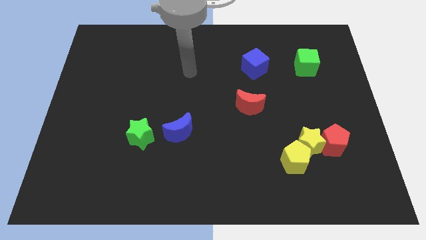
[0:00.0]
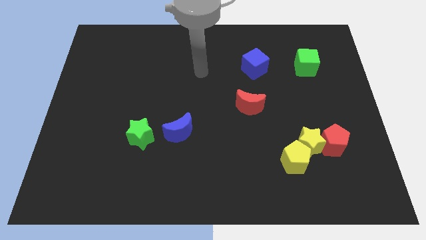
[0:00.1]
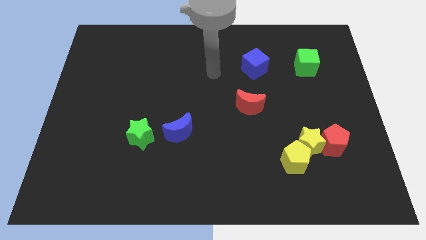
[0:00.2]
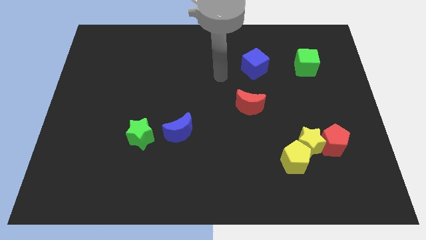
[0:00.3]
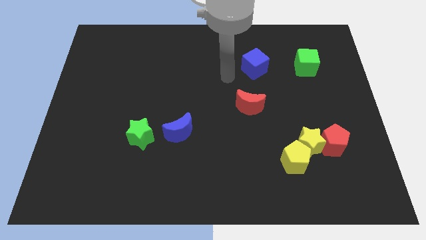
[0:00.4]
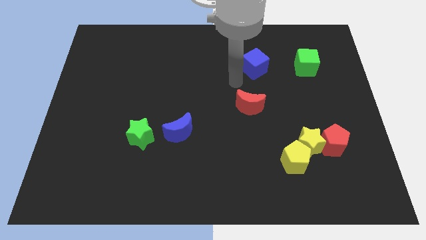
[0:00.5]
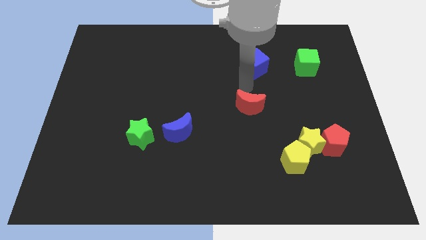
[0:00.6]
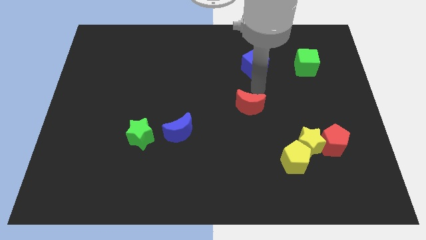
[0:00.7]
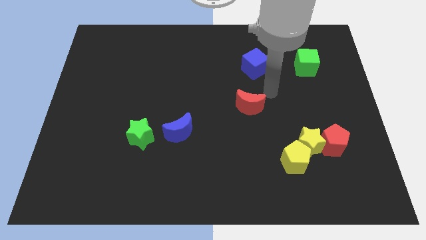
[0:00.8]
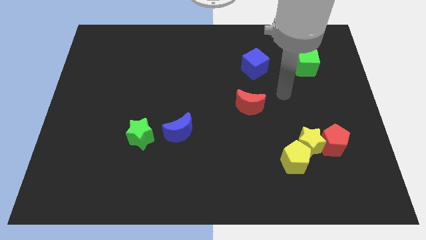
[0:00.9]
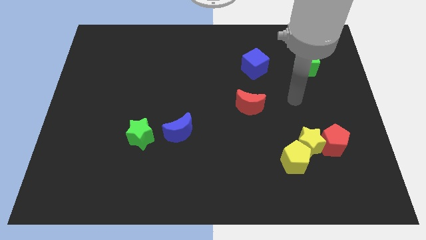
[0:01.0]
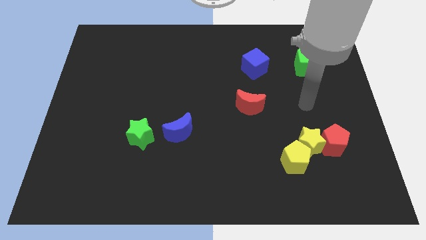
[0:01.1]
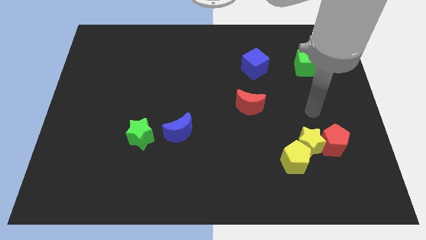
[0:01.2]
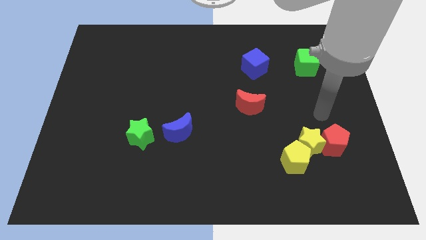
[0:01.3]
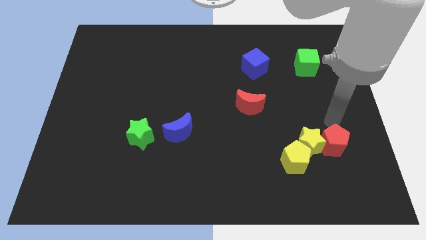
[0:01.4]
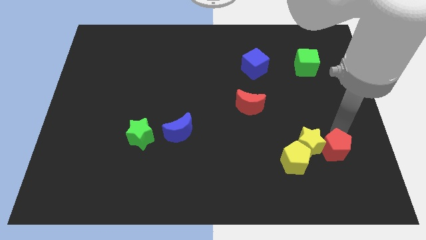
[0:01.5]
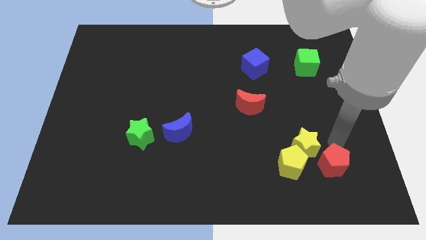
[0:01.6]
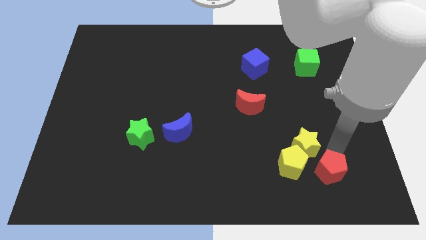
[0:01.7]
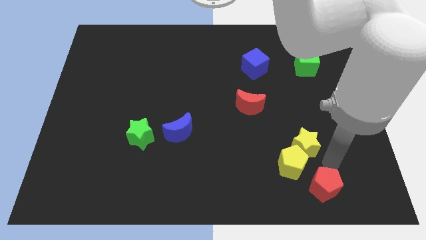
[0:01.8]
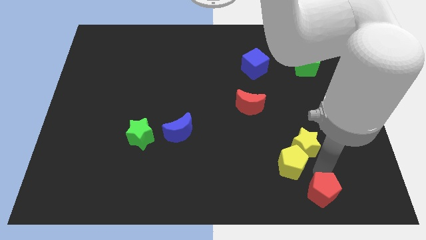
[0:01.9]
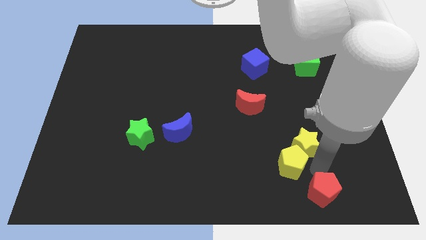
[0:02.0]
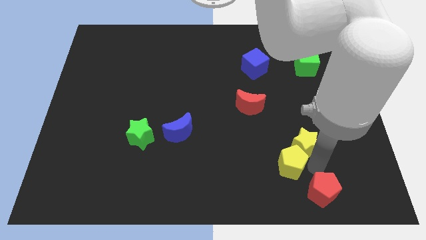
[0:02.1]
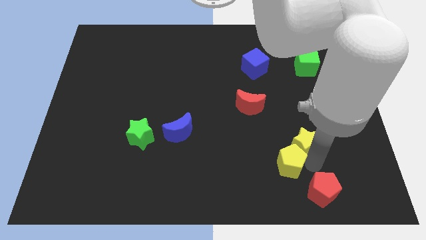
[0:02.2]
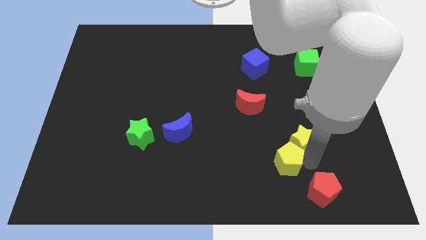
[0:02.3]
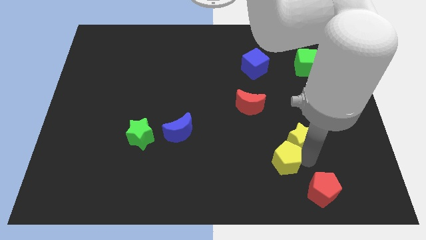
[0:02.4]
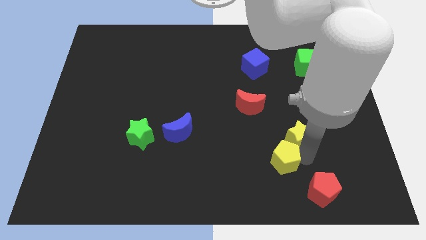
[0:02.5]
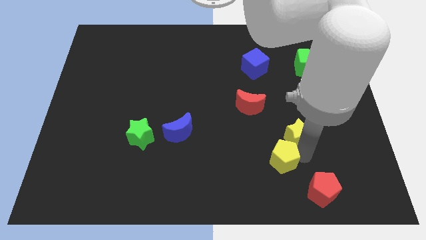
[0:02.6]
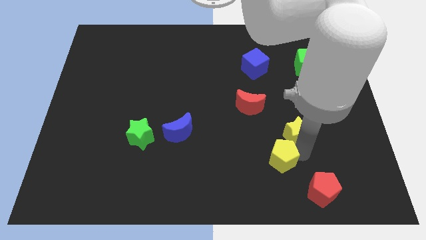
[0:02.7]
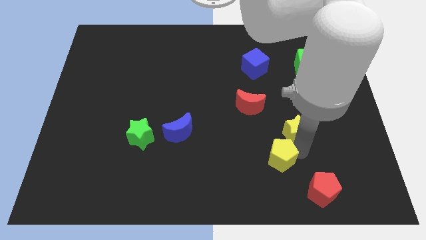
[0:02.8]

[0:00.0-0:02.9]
move the yellow star away from the red pentagon and yellow pentagon

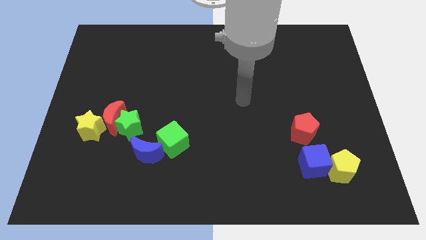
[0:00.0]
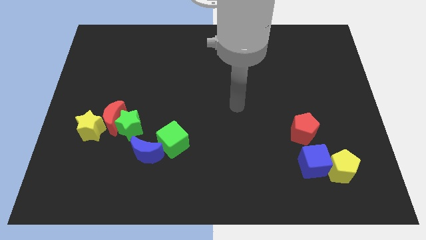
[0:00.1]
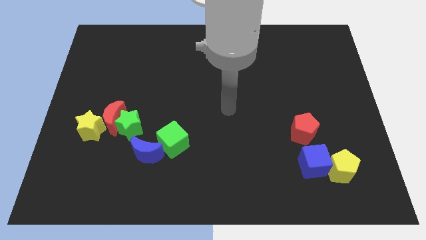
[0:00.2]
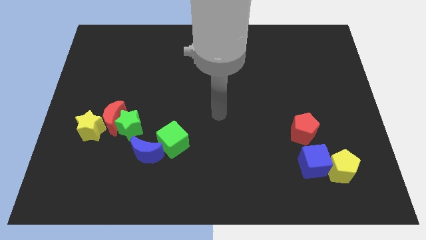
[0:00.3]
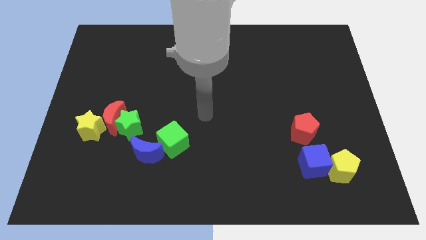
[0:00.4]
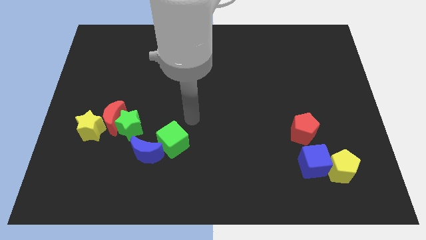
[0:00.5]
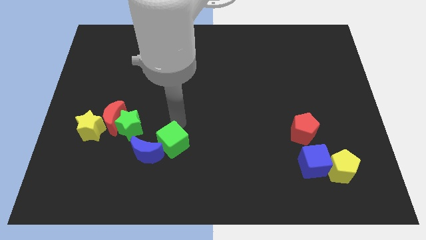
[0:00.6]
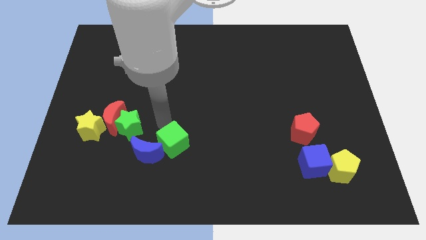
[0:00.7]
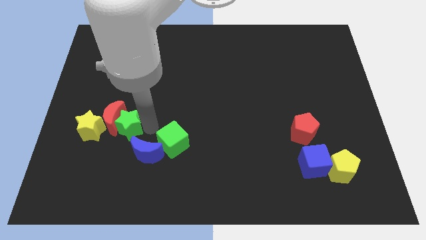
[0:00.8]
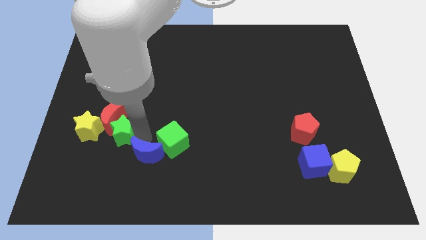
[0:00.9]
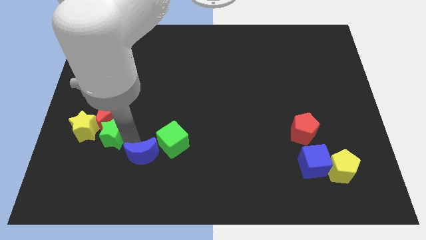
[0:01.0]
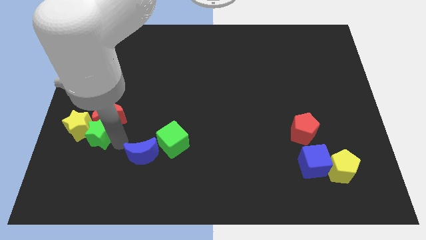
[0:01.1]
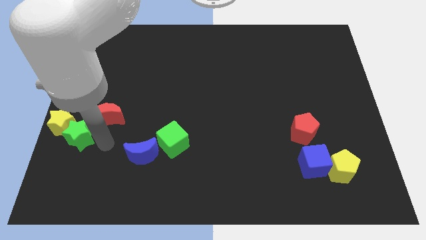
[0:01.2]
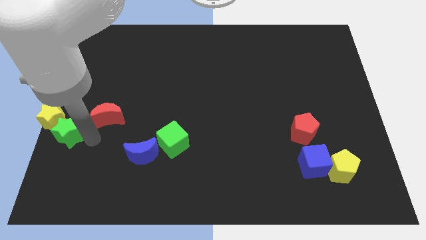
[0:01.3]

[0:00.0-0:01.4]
move the red moon away from the green star and yellow star

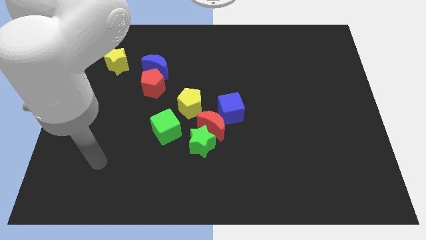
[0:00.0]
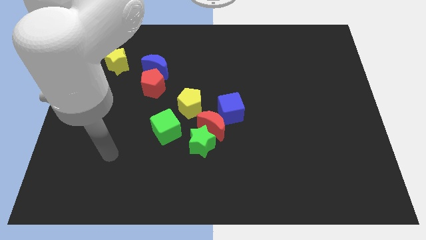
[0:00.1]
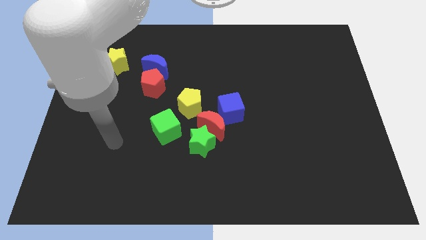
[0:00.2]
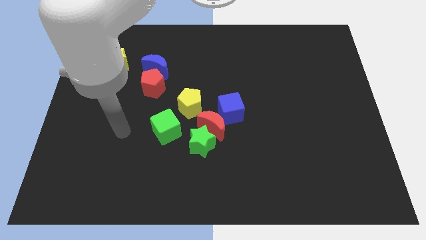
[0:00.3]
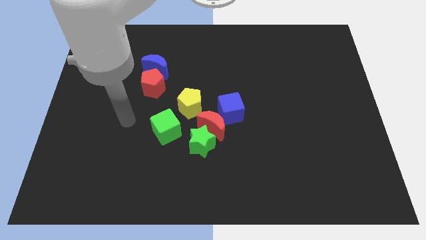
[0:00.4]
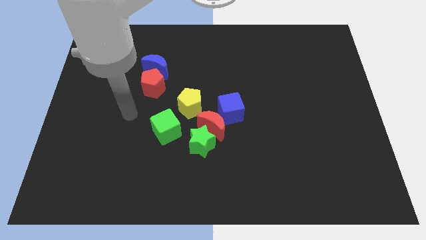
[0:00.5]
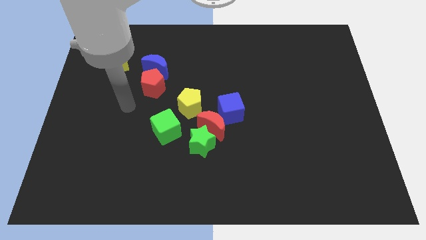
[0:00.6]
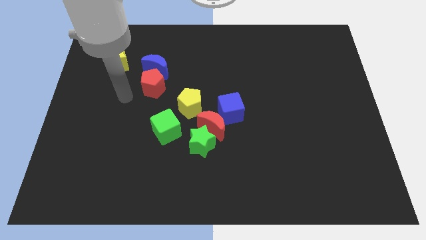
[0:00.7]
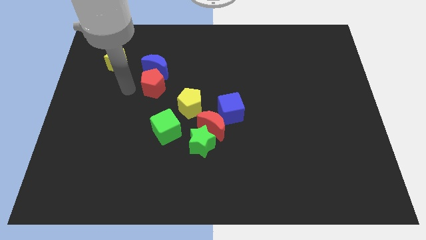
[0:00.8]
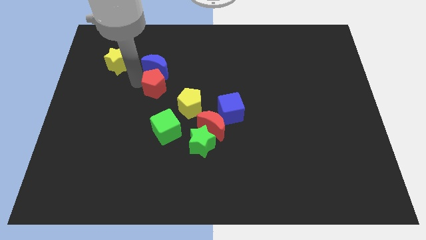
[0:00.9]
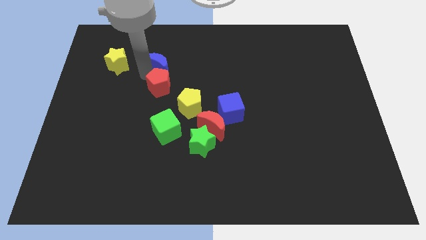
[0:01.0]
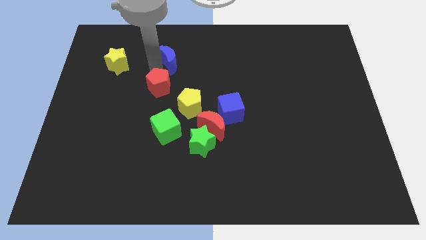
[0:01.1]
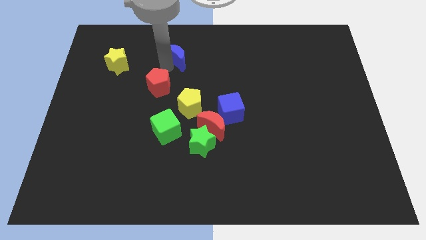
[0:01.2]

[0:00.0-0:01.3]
pull the red pentagon apart from the blue moon

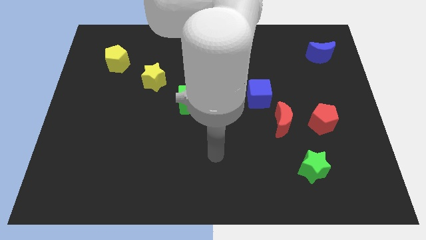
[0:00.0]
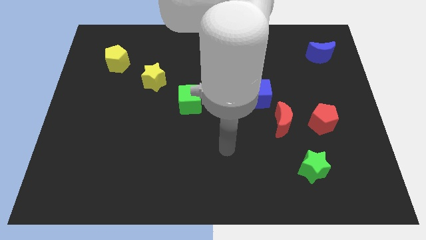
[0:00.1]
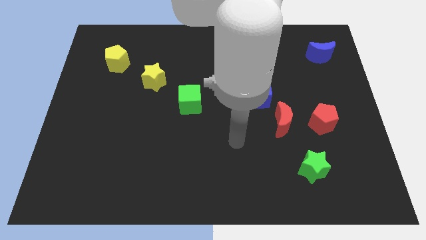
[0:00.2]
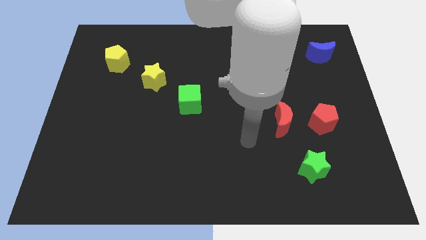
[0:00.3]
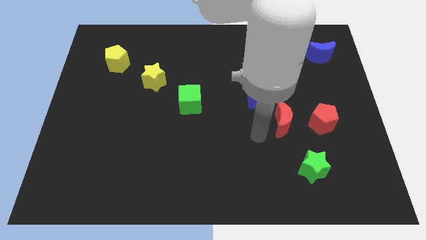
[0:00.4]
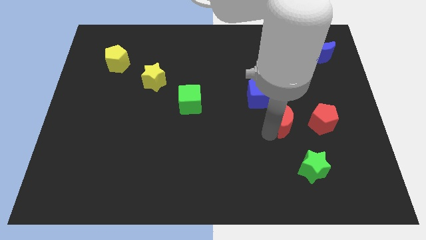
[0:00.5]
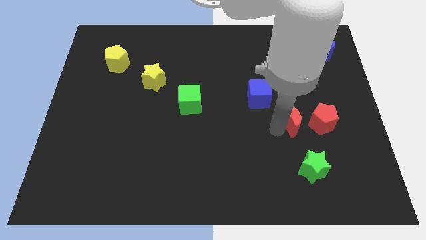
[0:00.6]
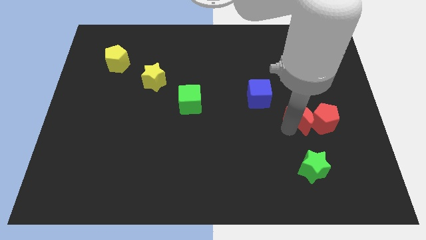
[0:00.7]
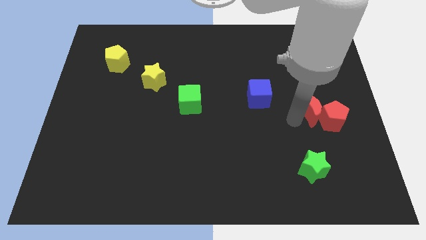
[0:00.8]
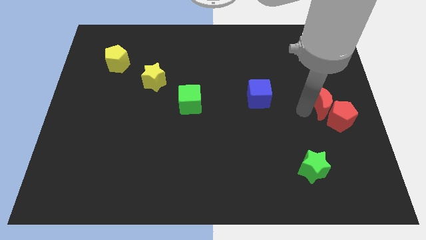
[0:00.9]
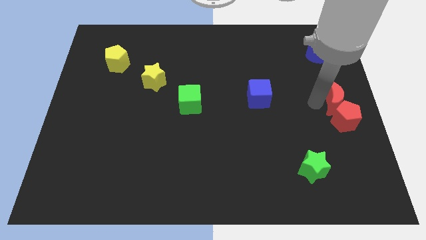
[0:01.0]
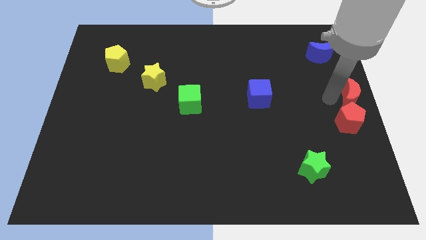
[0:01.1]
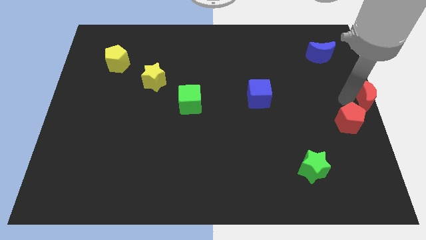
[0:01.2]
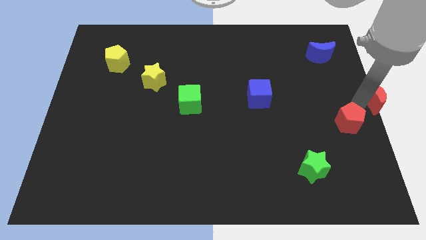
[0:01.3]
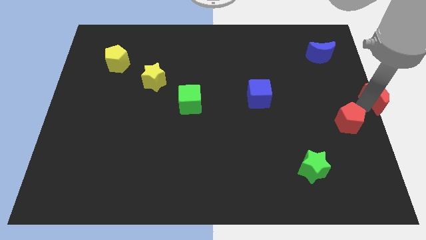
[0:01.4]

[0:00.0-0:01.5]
move the red pentagon away from the red moon

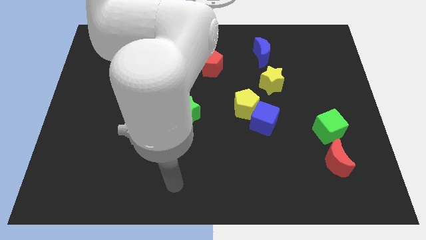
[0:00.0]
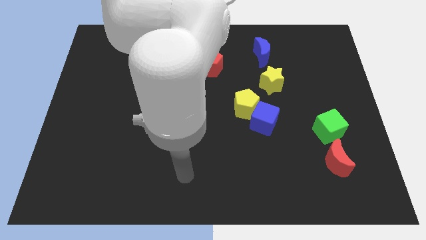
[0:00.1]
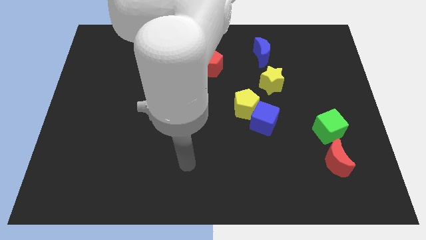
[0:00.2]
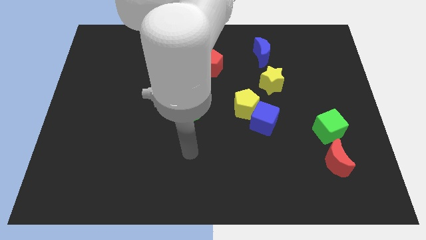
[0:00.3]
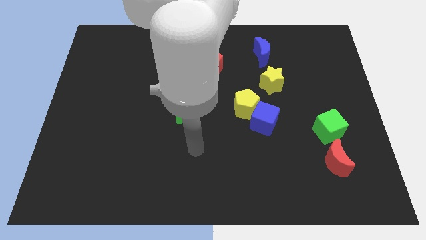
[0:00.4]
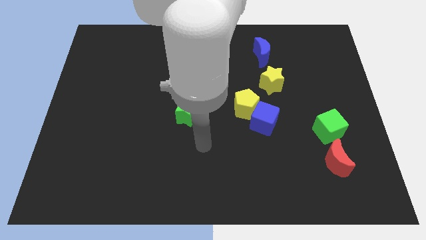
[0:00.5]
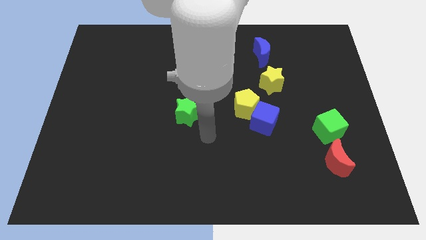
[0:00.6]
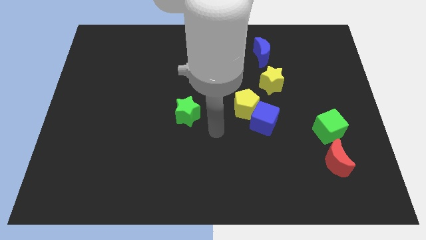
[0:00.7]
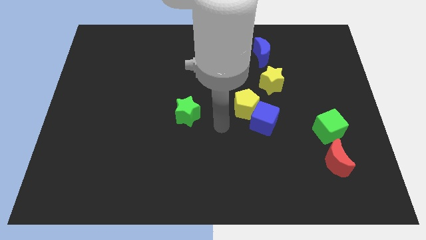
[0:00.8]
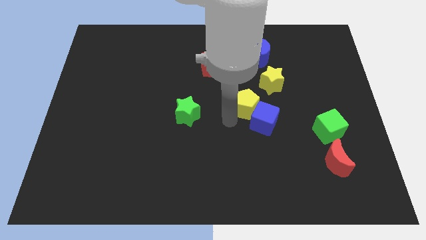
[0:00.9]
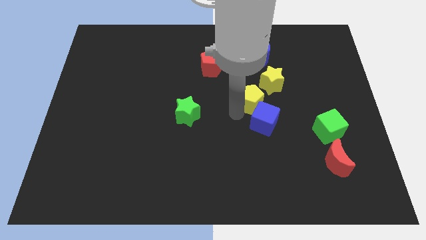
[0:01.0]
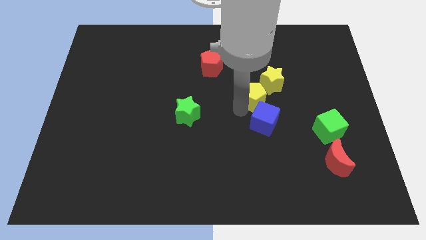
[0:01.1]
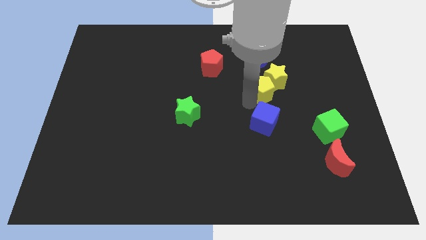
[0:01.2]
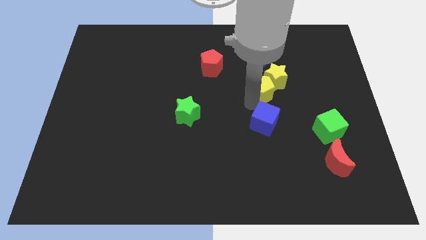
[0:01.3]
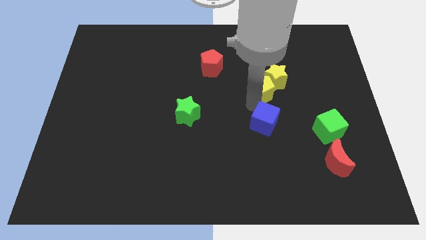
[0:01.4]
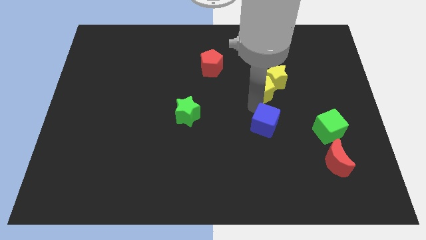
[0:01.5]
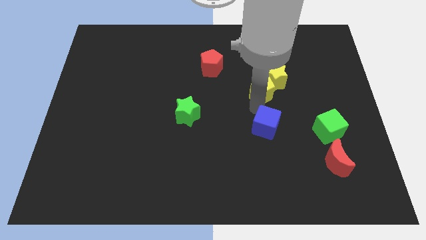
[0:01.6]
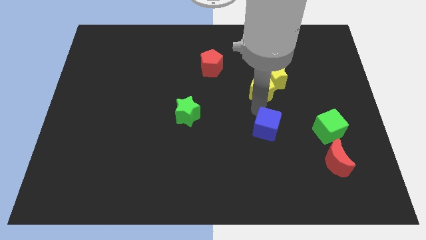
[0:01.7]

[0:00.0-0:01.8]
separate the blue cube from the yellow pentagon

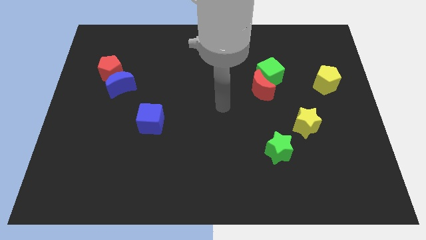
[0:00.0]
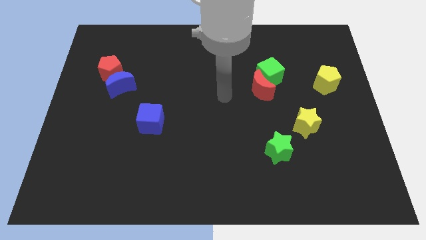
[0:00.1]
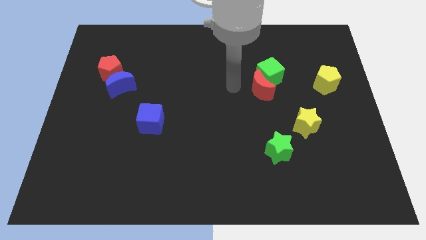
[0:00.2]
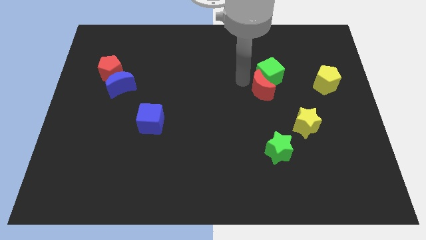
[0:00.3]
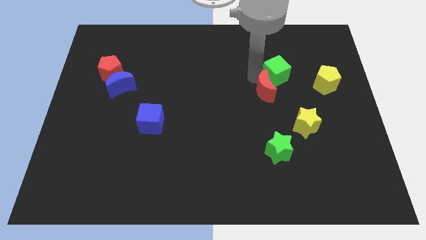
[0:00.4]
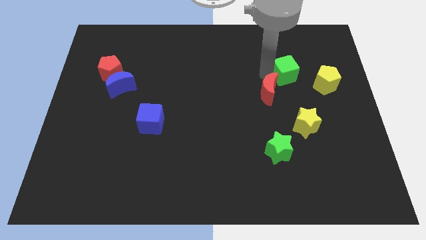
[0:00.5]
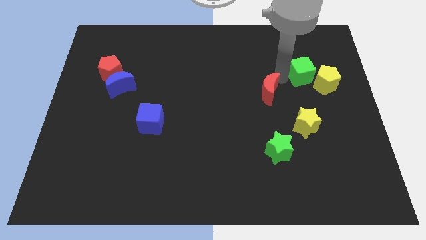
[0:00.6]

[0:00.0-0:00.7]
move the red moon away from the green cube
